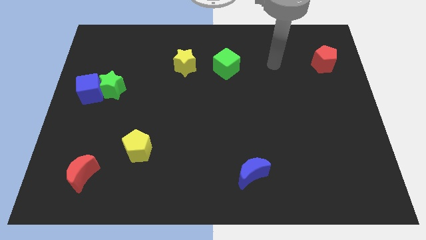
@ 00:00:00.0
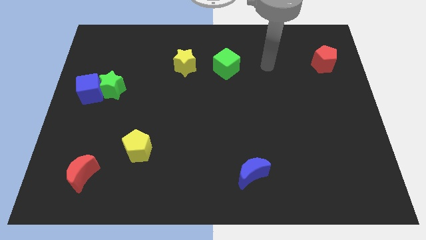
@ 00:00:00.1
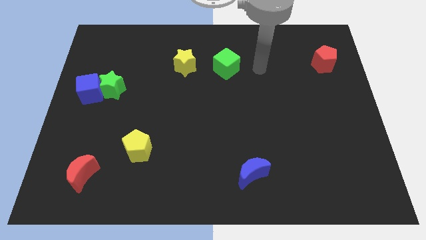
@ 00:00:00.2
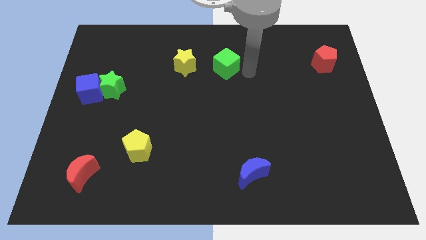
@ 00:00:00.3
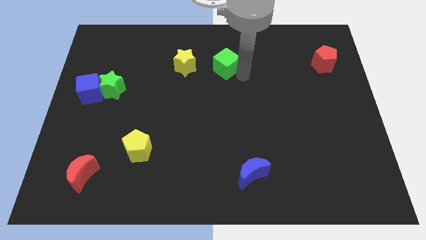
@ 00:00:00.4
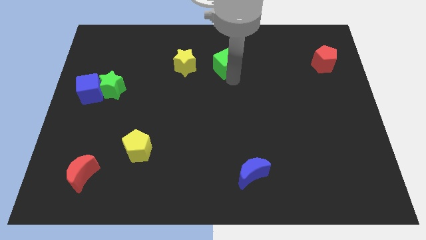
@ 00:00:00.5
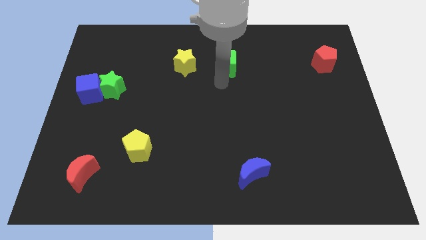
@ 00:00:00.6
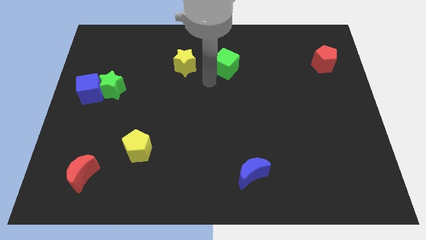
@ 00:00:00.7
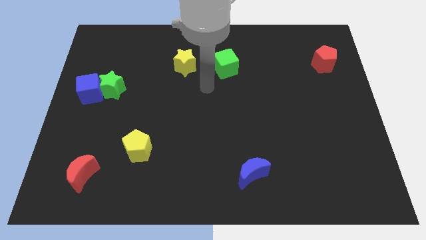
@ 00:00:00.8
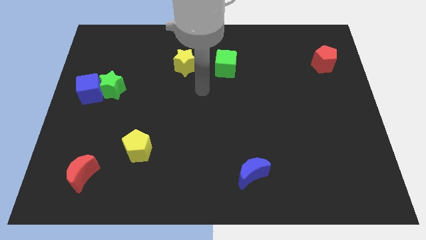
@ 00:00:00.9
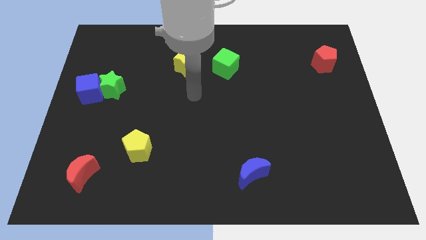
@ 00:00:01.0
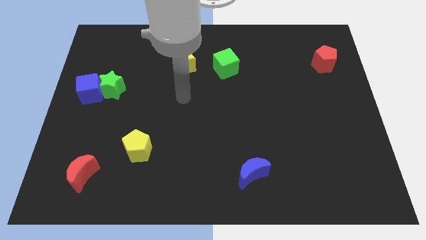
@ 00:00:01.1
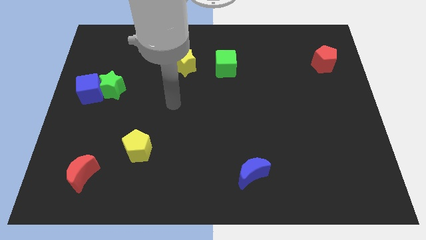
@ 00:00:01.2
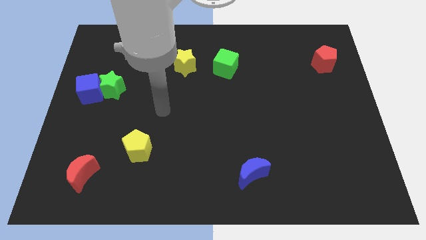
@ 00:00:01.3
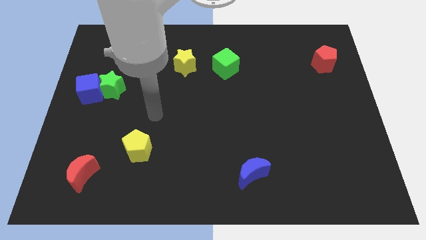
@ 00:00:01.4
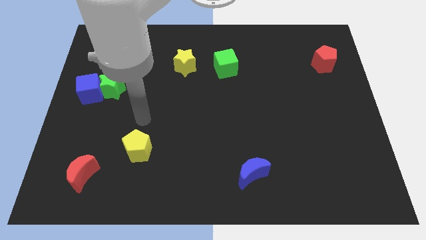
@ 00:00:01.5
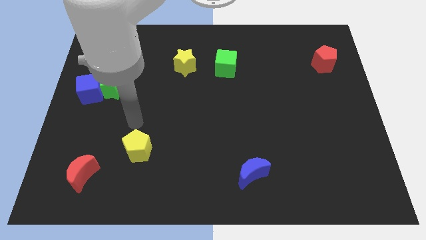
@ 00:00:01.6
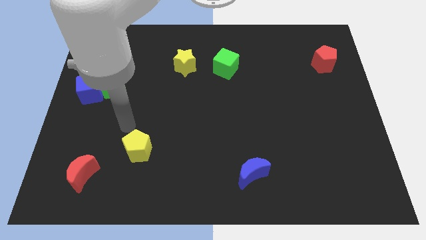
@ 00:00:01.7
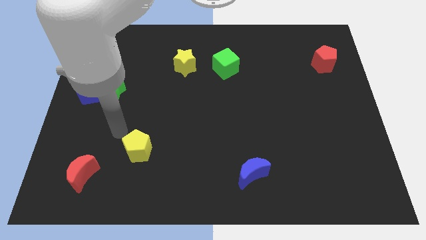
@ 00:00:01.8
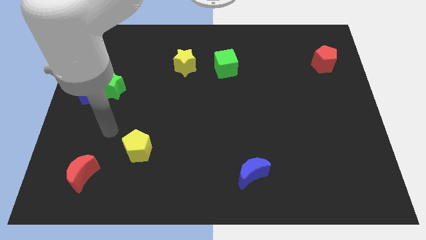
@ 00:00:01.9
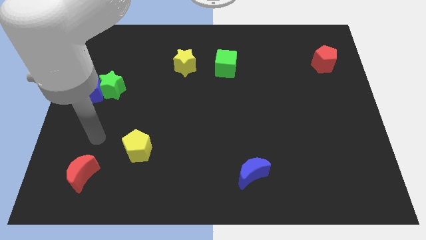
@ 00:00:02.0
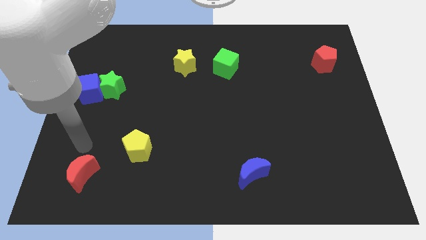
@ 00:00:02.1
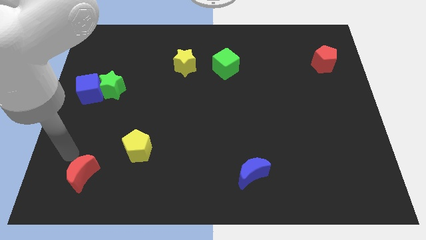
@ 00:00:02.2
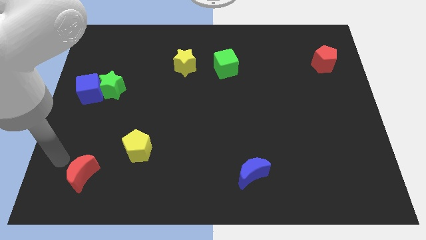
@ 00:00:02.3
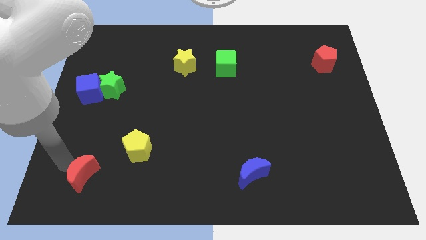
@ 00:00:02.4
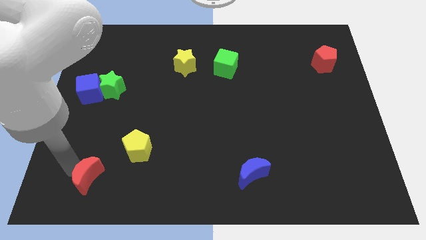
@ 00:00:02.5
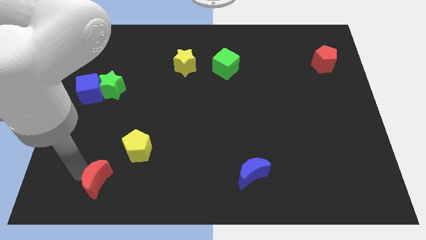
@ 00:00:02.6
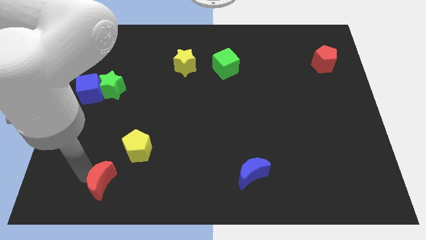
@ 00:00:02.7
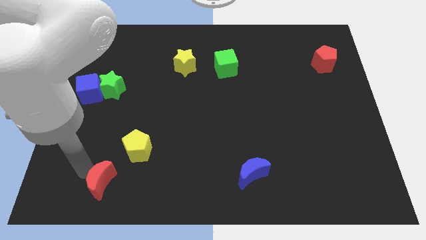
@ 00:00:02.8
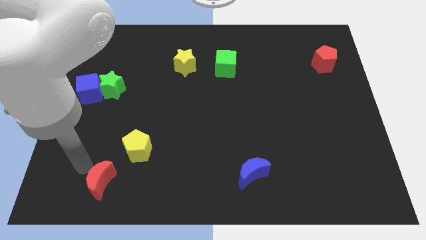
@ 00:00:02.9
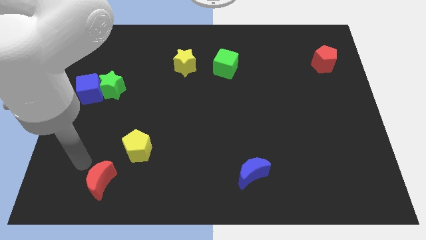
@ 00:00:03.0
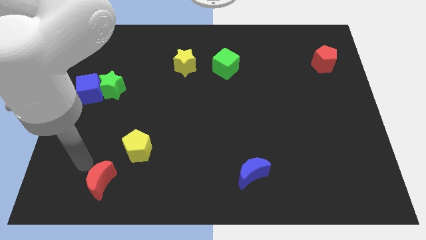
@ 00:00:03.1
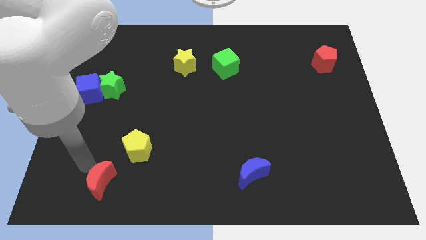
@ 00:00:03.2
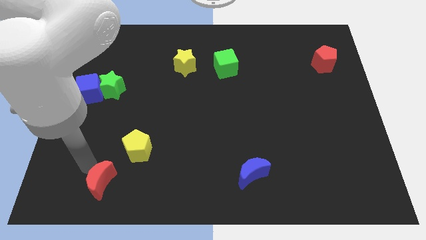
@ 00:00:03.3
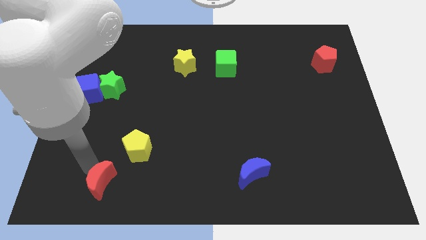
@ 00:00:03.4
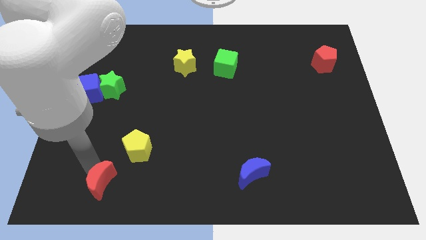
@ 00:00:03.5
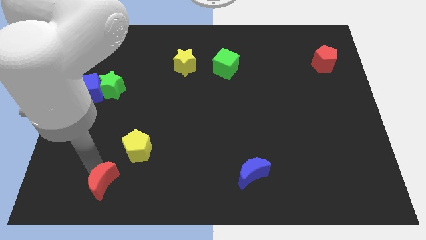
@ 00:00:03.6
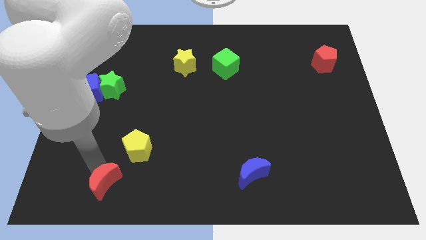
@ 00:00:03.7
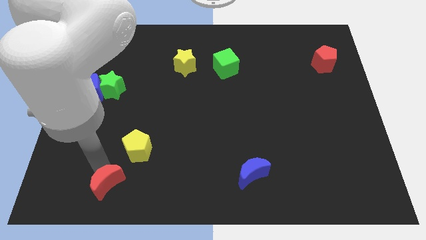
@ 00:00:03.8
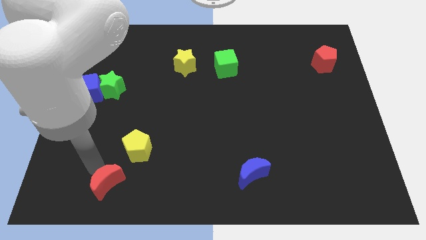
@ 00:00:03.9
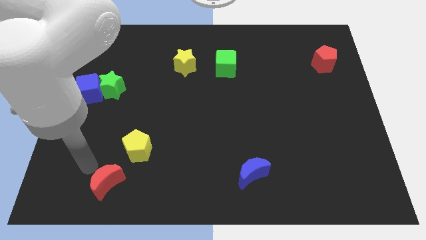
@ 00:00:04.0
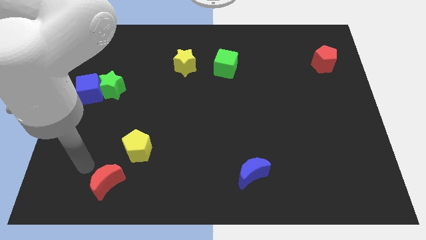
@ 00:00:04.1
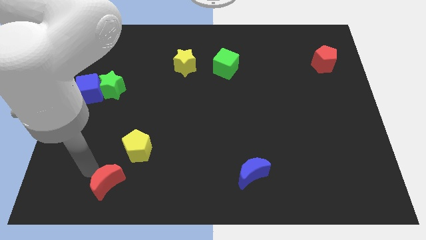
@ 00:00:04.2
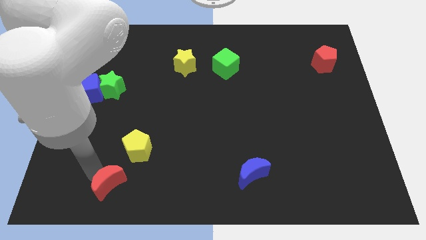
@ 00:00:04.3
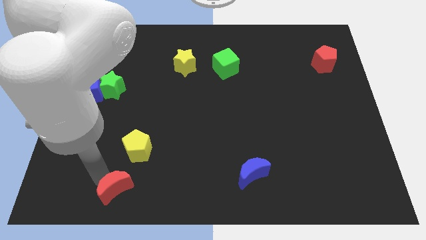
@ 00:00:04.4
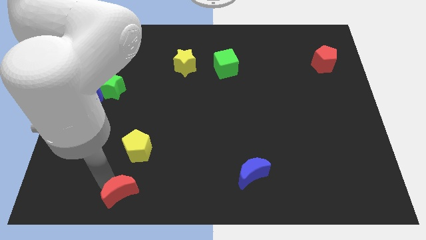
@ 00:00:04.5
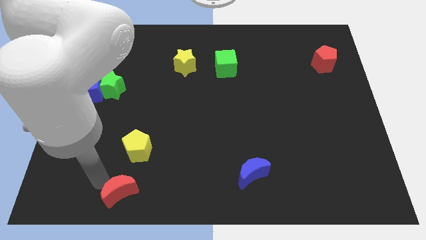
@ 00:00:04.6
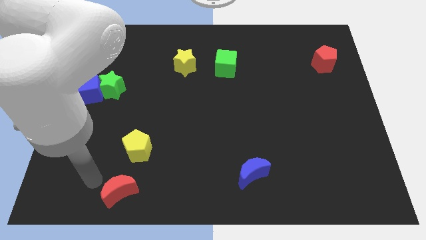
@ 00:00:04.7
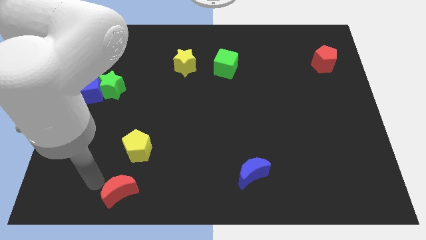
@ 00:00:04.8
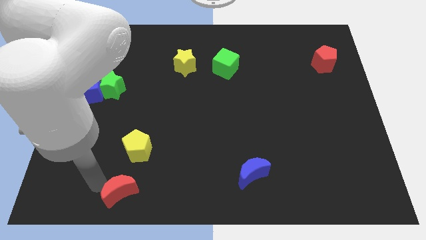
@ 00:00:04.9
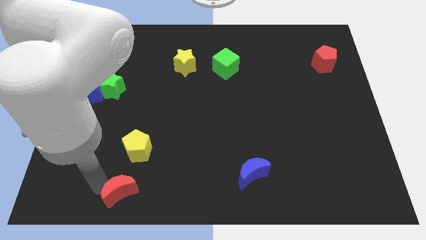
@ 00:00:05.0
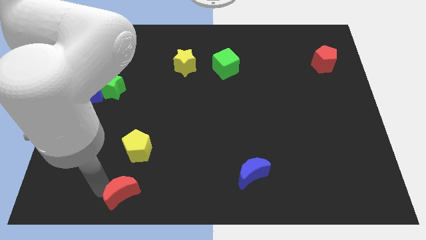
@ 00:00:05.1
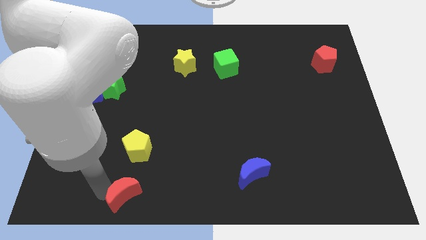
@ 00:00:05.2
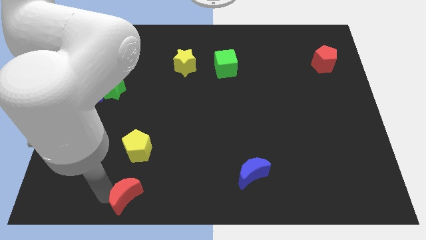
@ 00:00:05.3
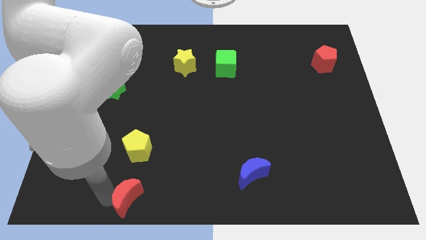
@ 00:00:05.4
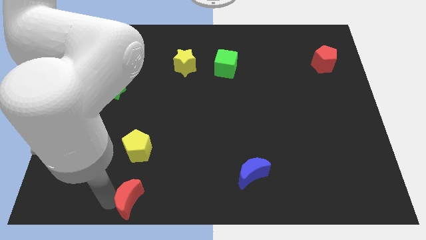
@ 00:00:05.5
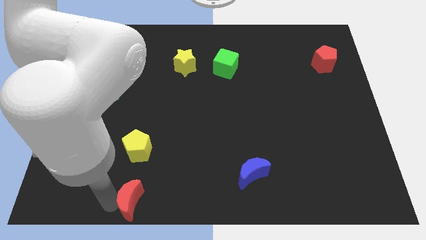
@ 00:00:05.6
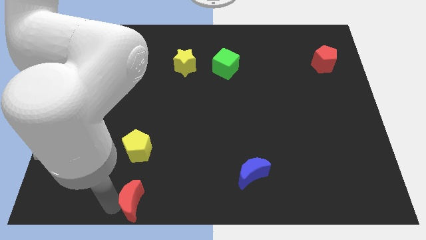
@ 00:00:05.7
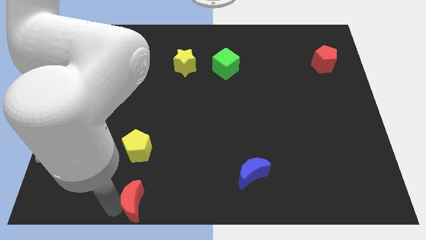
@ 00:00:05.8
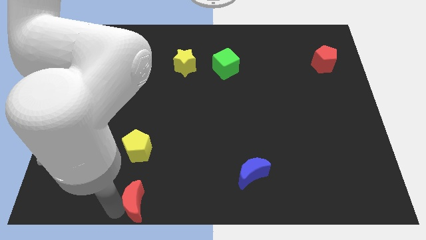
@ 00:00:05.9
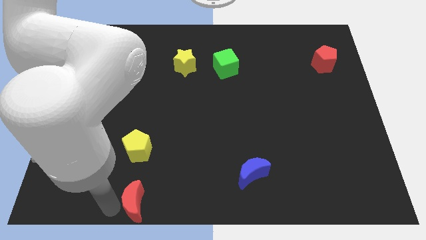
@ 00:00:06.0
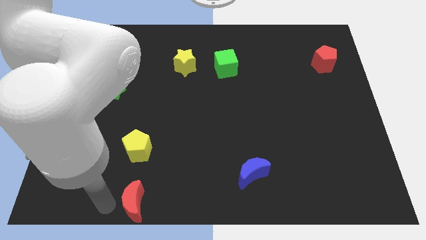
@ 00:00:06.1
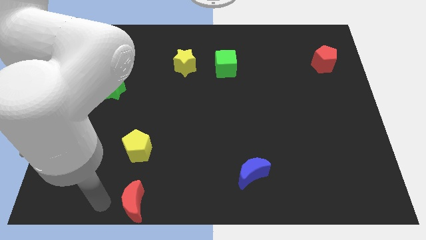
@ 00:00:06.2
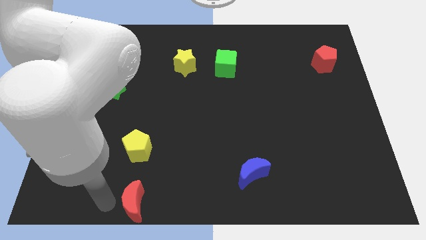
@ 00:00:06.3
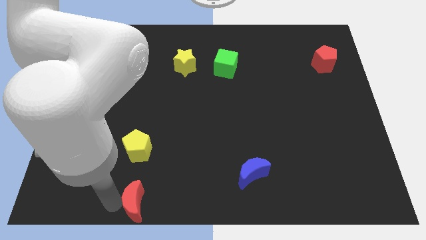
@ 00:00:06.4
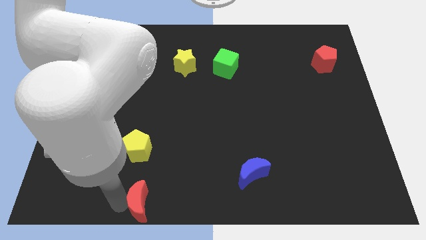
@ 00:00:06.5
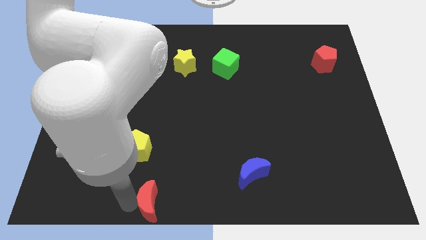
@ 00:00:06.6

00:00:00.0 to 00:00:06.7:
slide the red moon to the bottom
